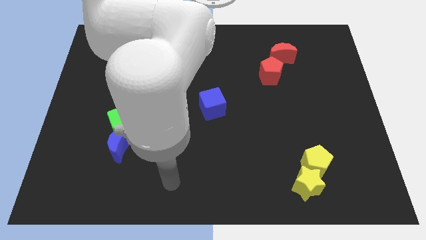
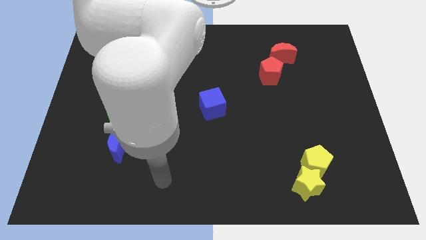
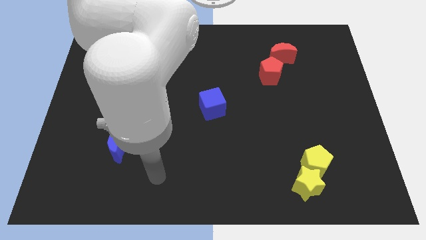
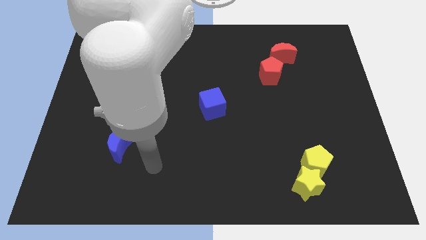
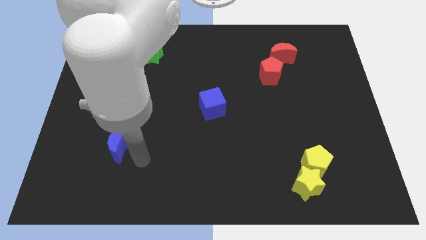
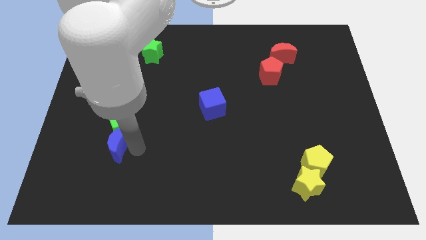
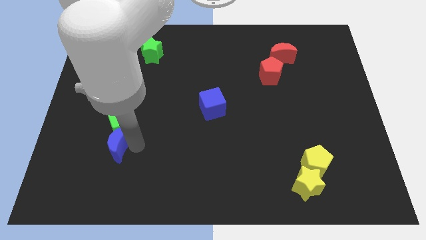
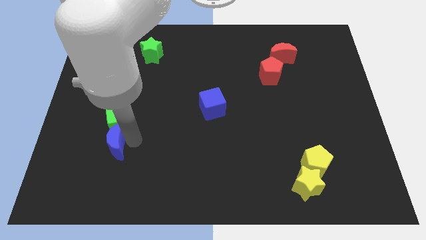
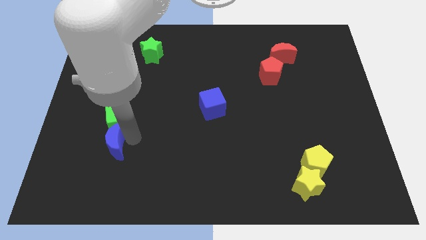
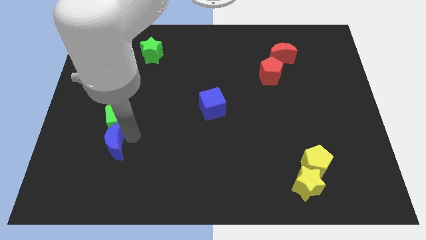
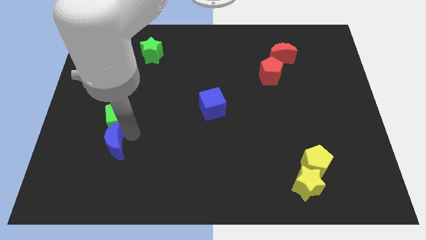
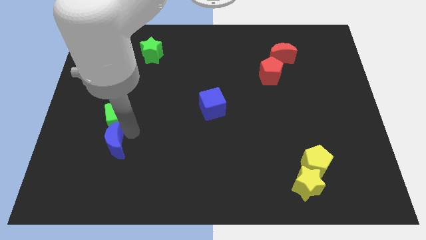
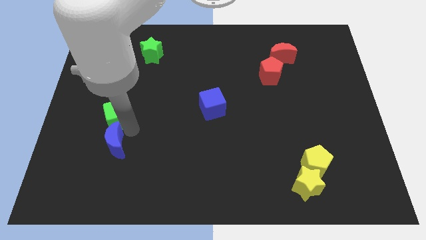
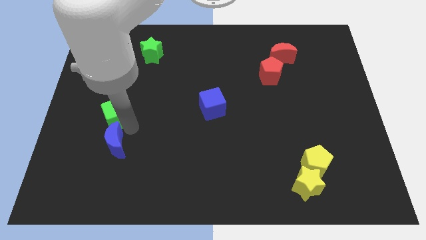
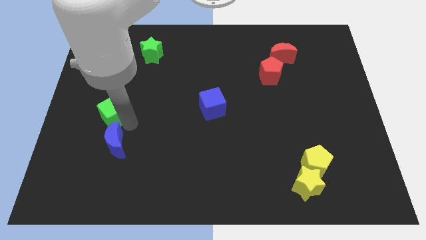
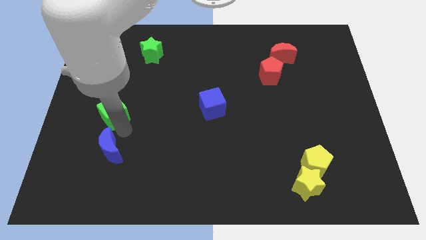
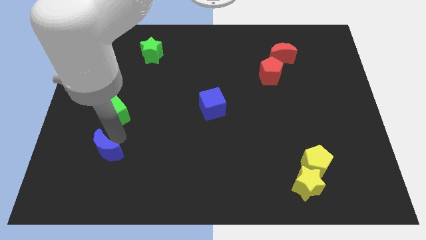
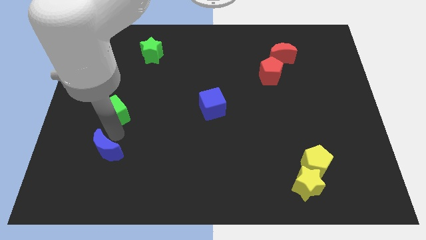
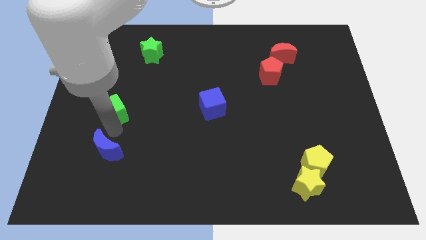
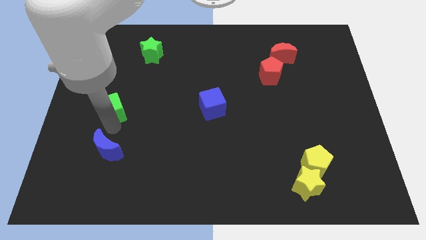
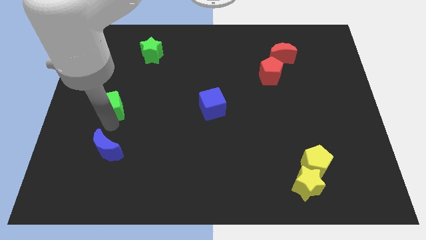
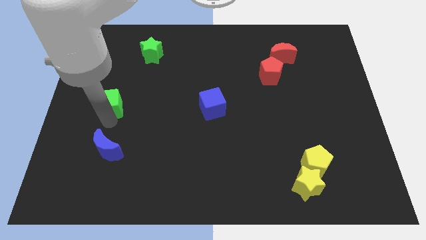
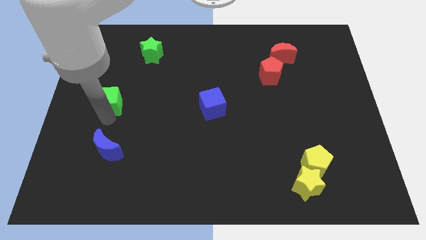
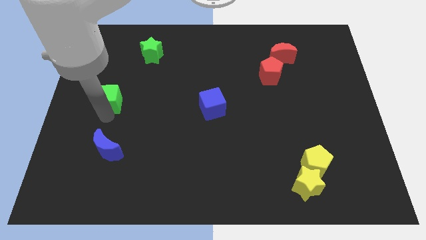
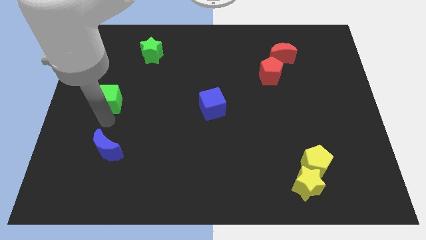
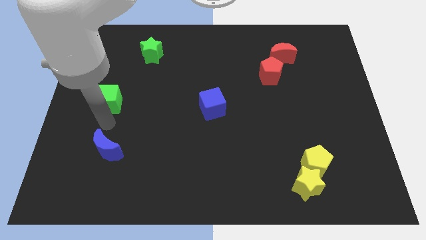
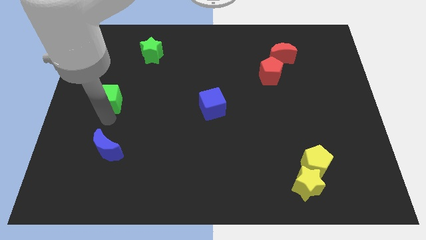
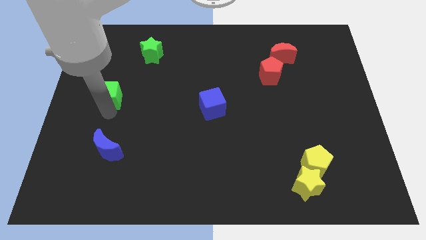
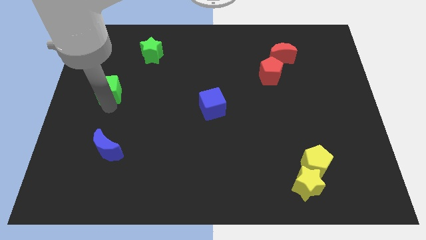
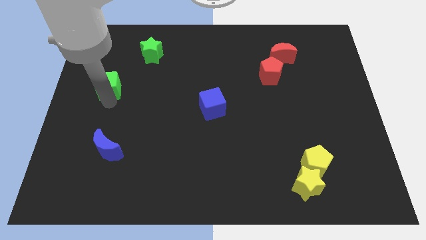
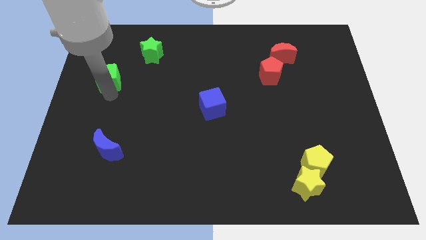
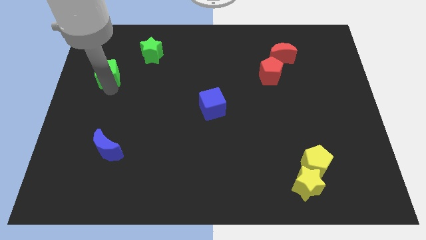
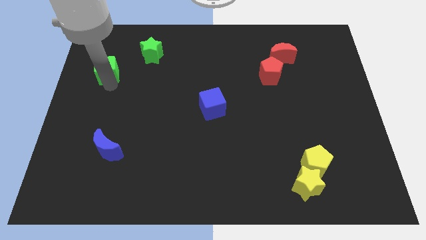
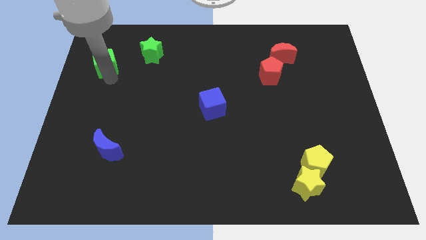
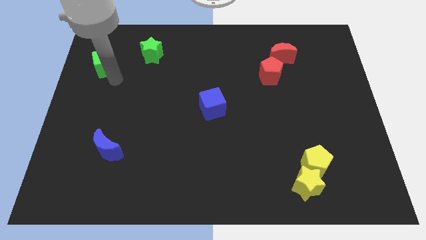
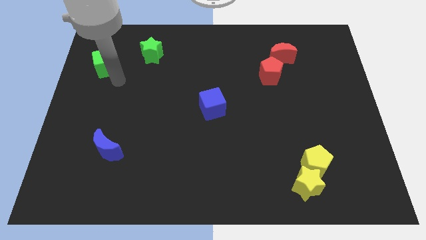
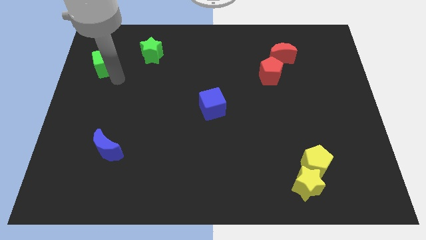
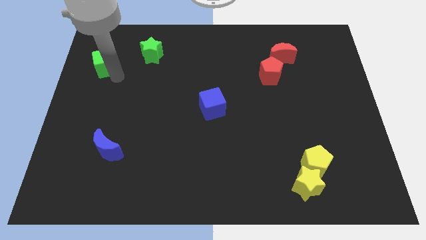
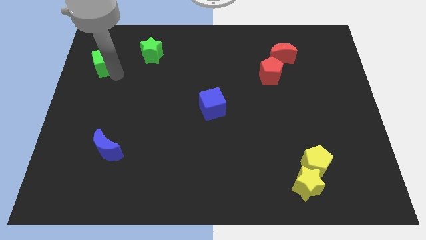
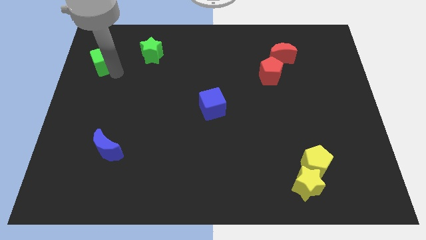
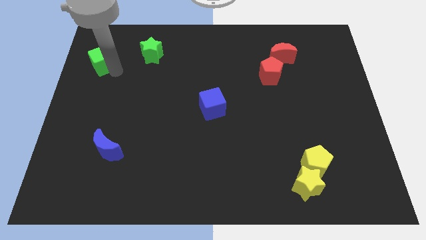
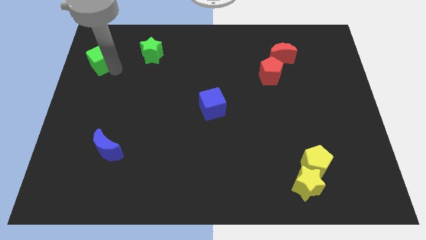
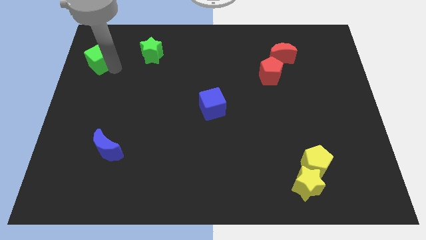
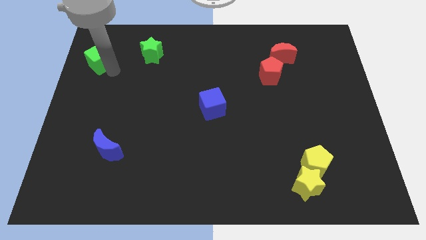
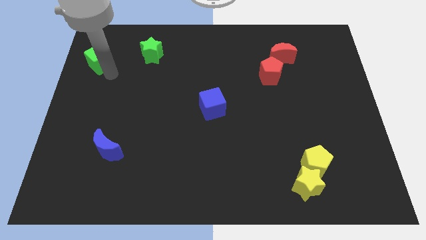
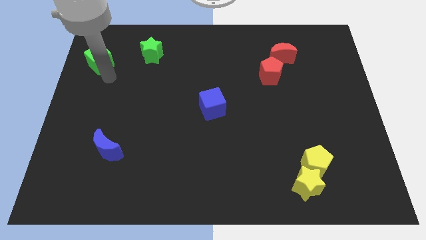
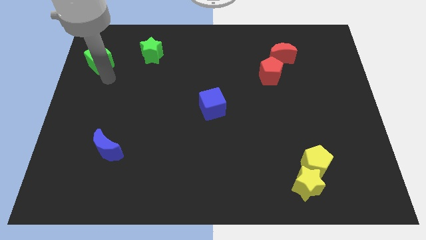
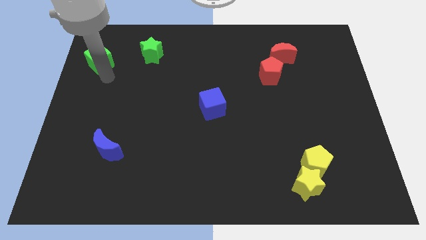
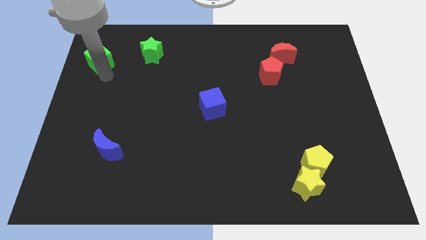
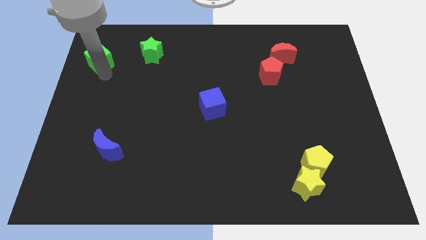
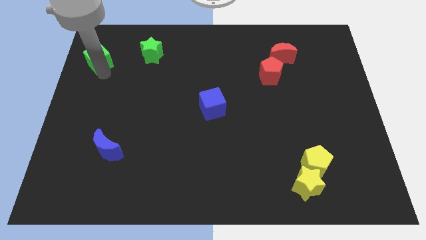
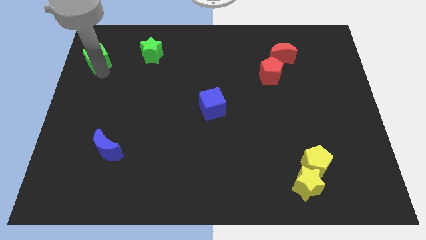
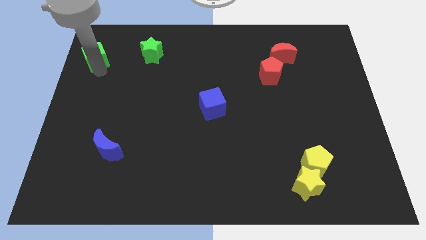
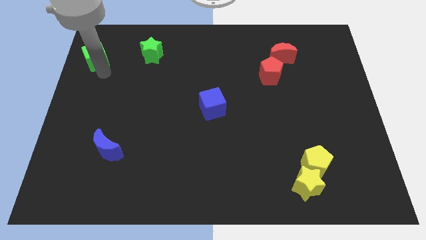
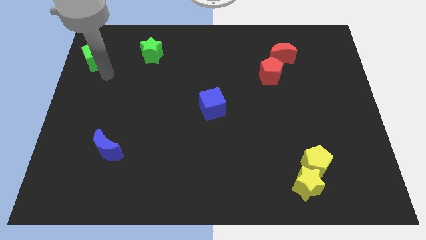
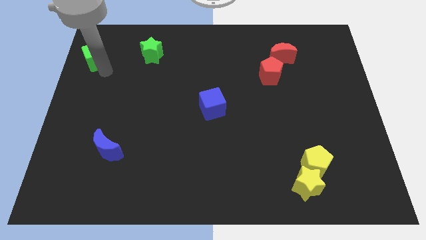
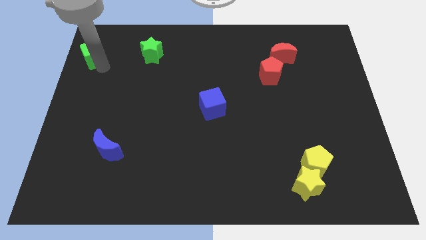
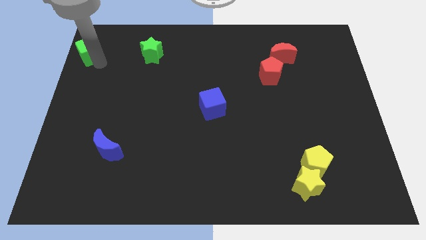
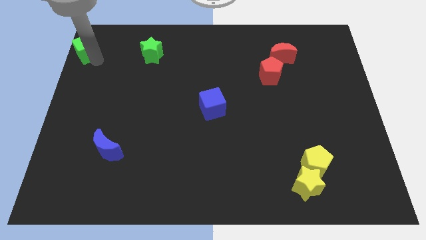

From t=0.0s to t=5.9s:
move the green cube to the top left corner

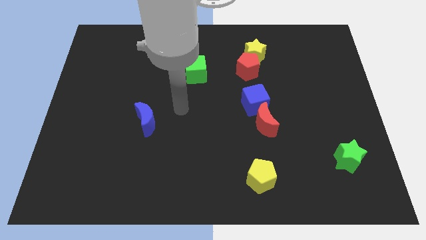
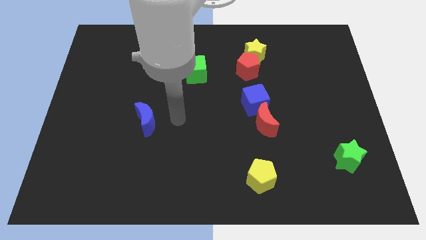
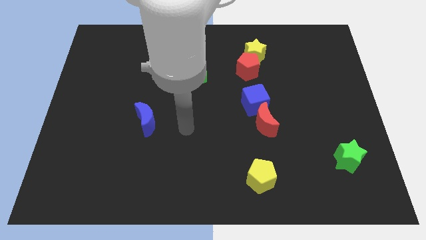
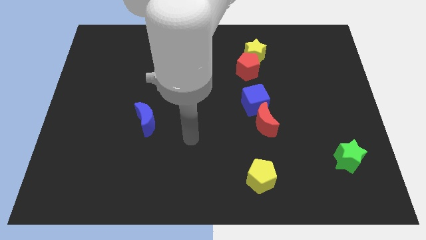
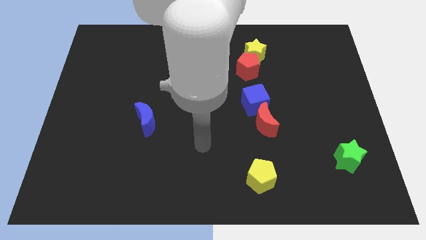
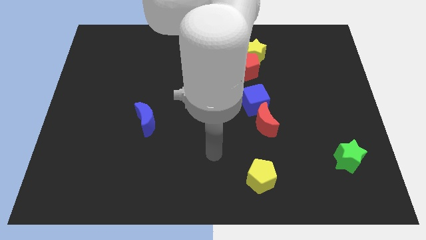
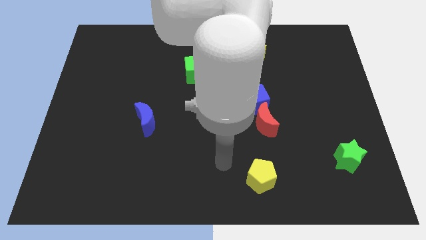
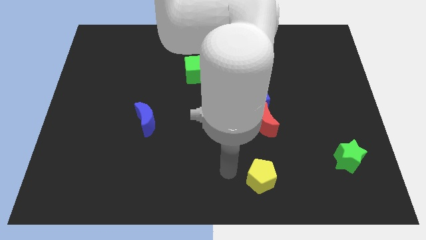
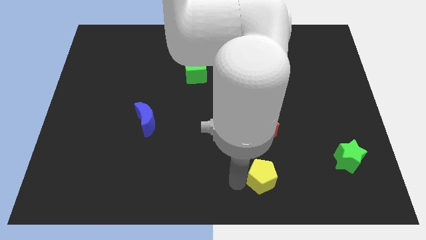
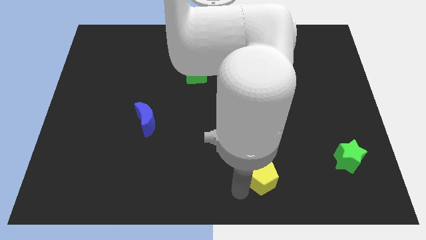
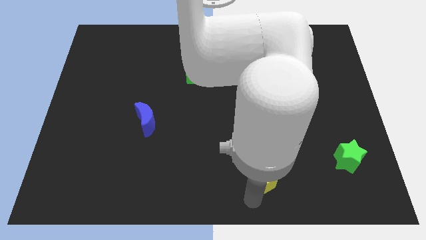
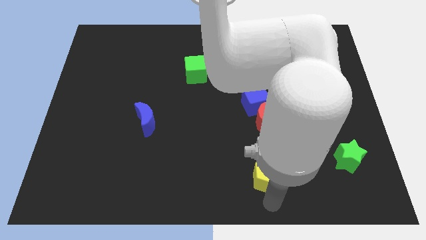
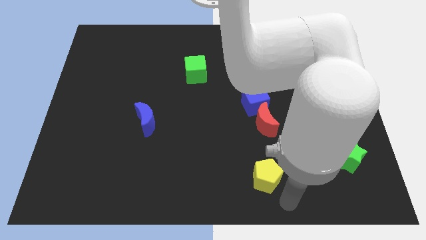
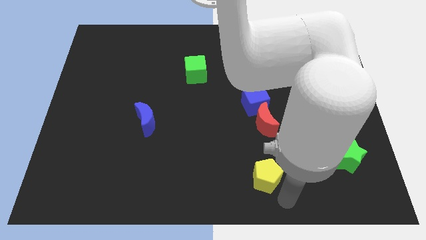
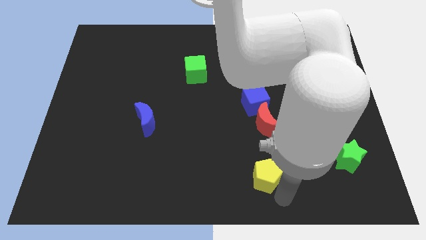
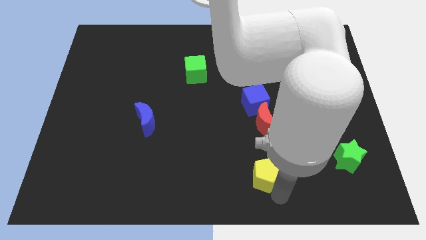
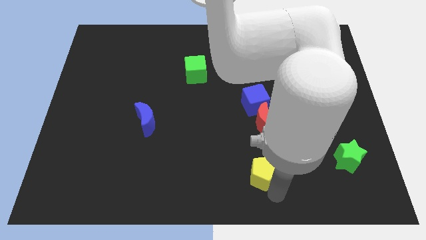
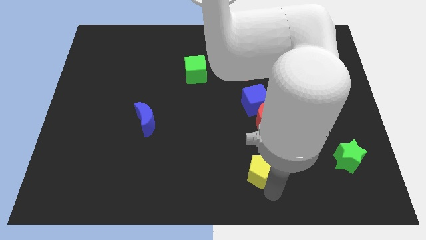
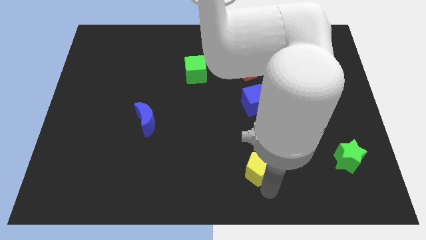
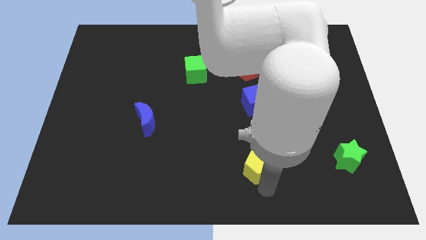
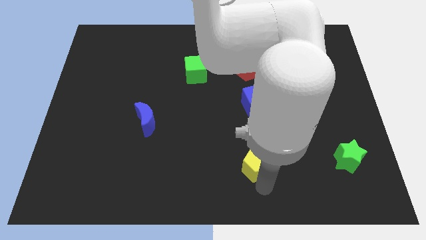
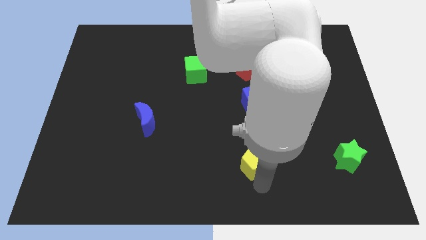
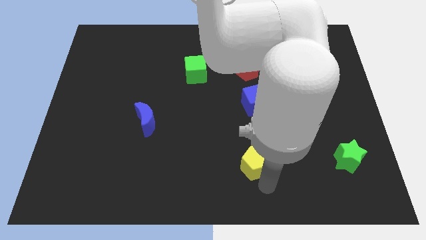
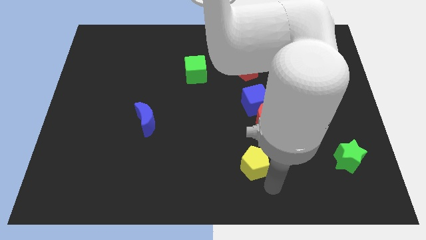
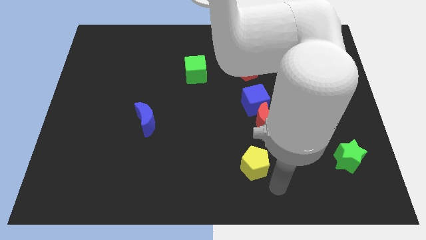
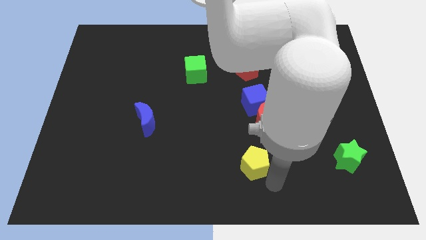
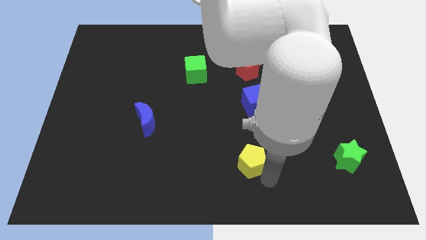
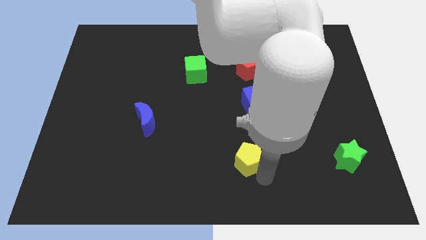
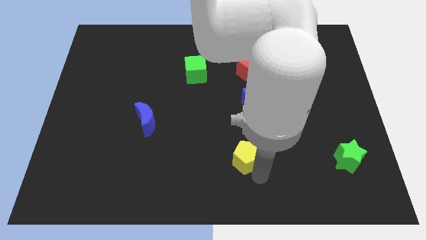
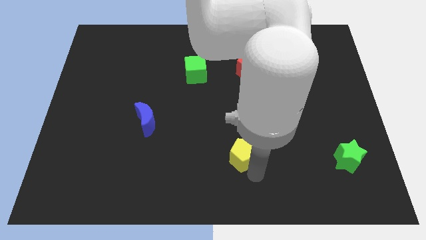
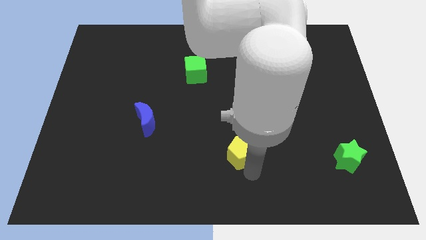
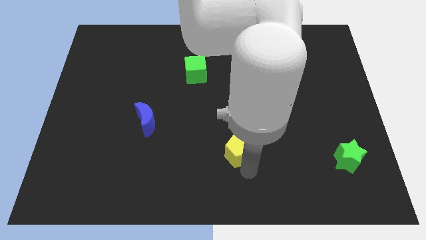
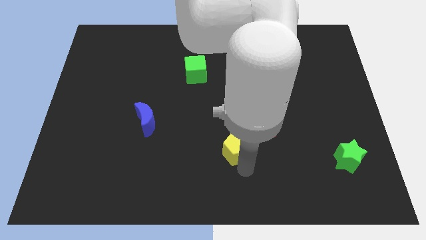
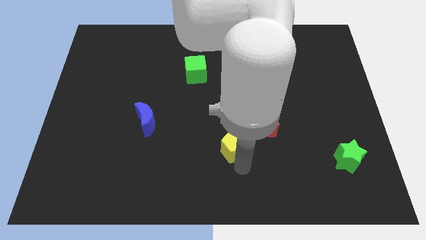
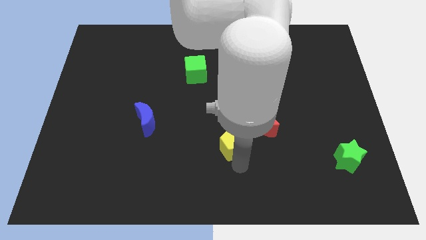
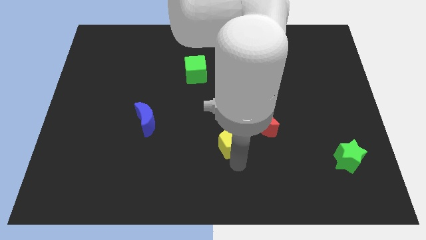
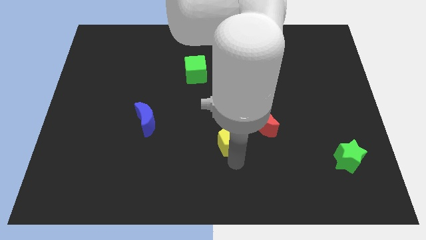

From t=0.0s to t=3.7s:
put the yellow pentagon to the center
